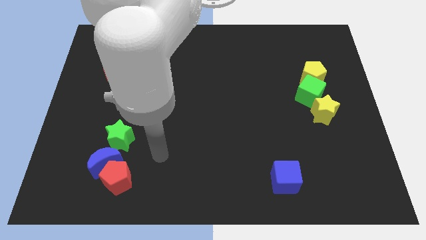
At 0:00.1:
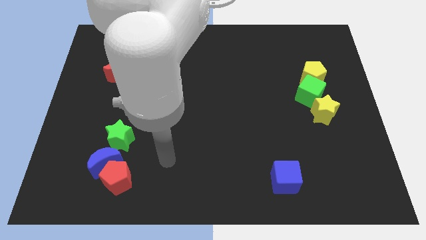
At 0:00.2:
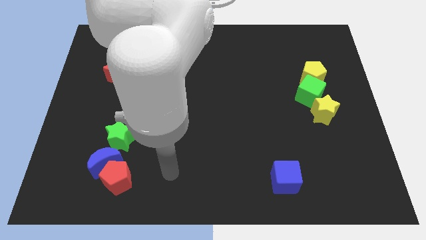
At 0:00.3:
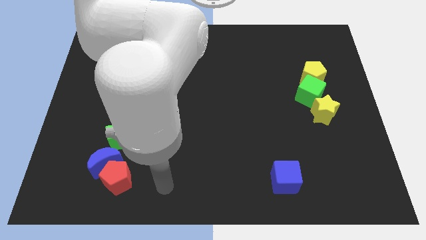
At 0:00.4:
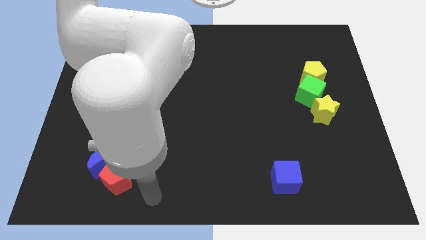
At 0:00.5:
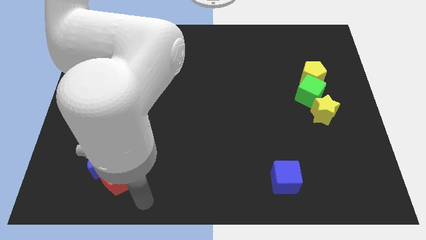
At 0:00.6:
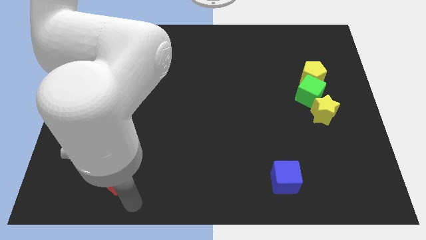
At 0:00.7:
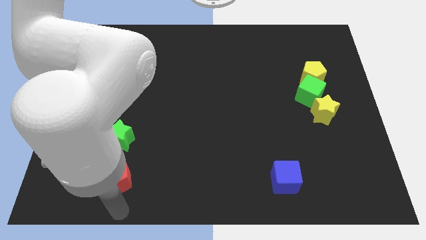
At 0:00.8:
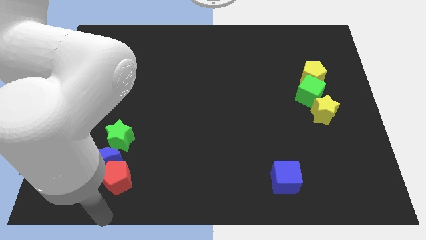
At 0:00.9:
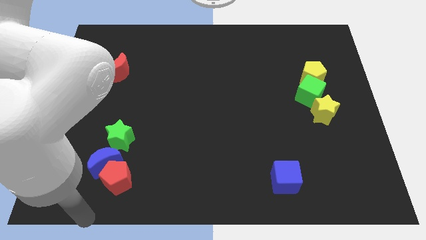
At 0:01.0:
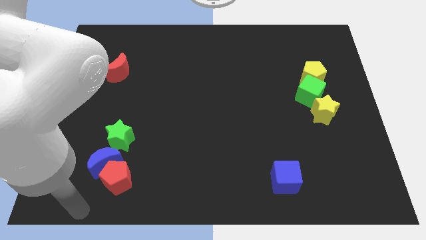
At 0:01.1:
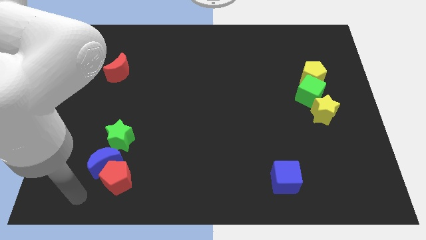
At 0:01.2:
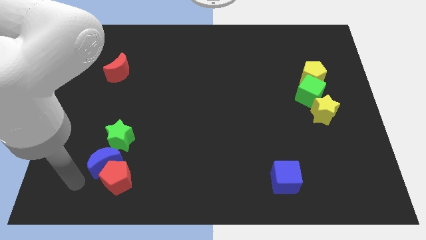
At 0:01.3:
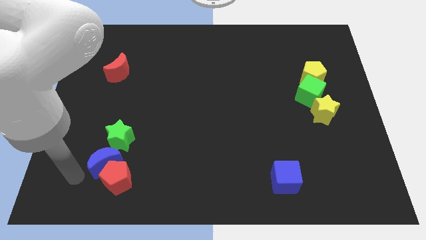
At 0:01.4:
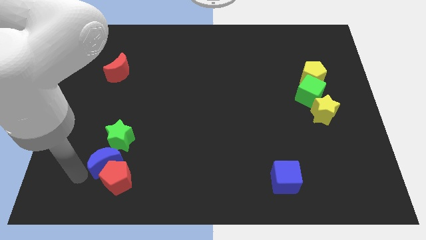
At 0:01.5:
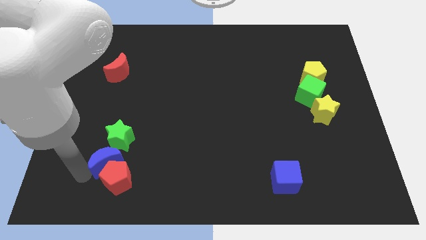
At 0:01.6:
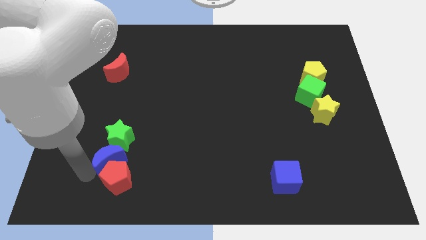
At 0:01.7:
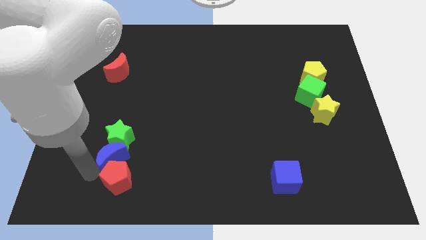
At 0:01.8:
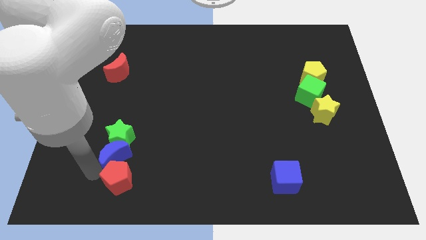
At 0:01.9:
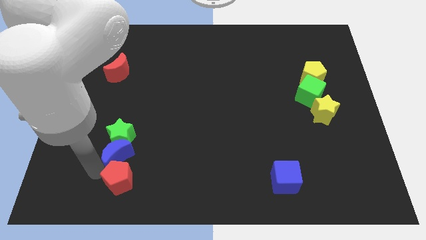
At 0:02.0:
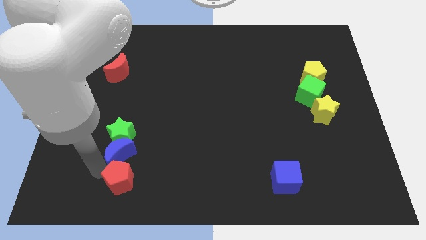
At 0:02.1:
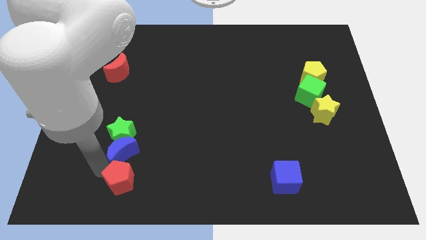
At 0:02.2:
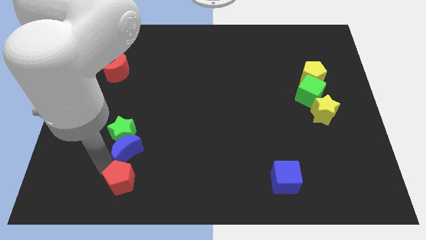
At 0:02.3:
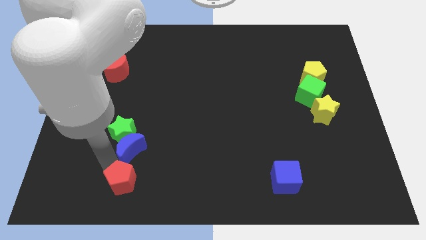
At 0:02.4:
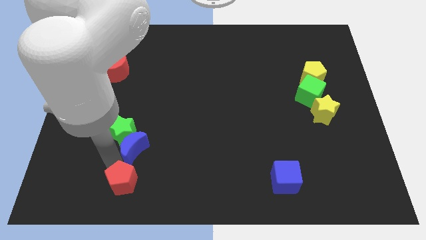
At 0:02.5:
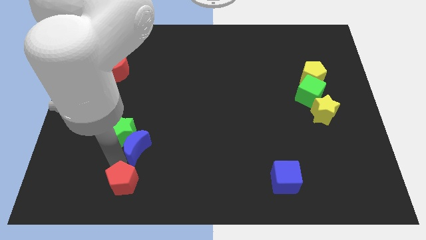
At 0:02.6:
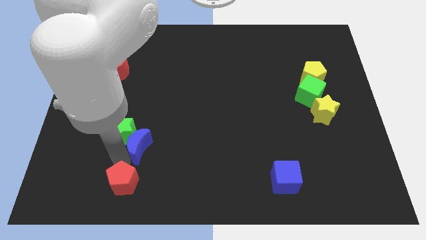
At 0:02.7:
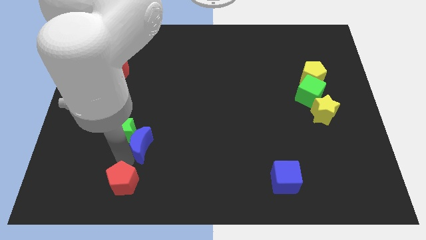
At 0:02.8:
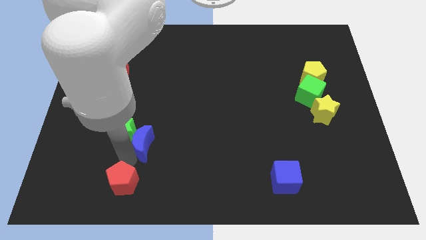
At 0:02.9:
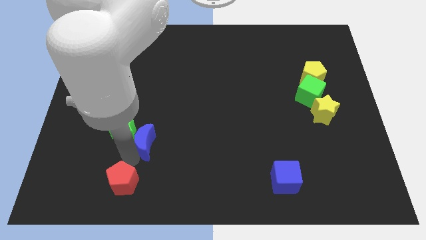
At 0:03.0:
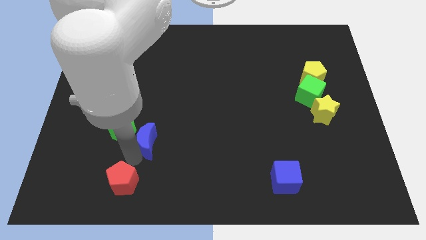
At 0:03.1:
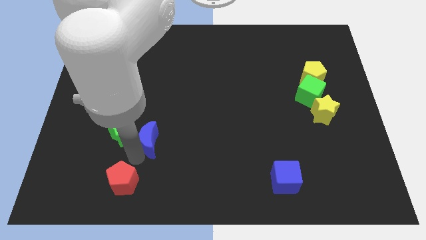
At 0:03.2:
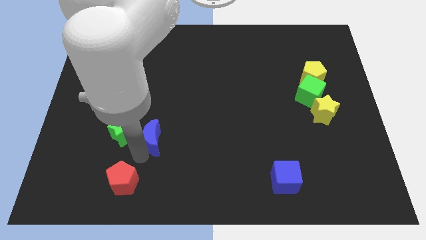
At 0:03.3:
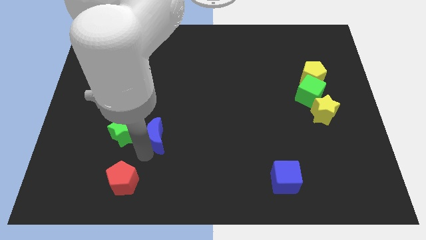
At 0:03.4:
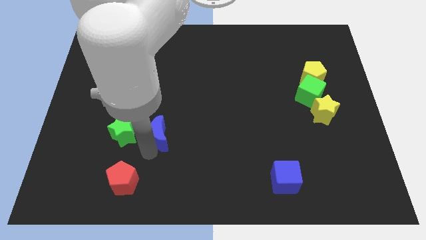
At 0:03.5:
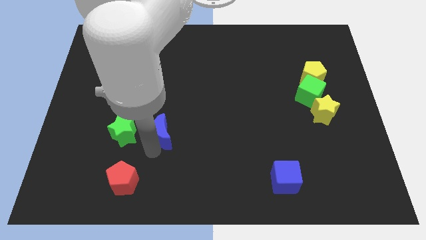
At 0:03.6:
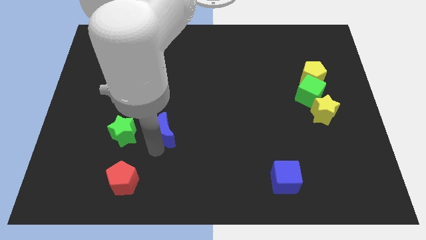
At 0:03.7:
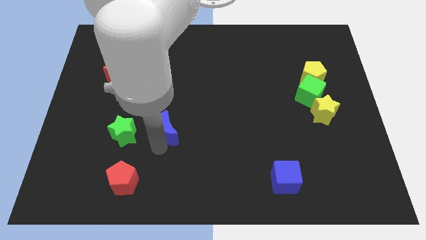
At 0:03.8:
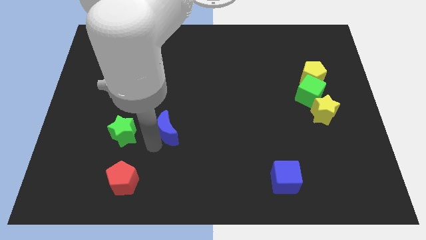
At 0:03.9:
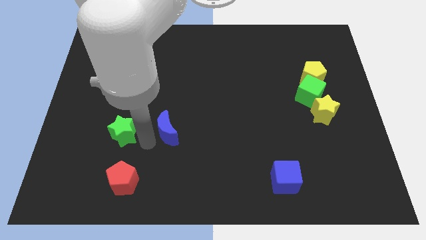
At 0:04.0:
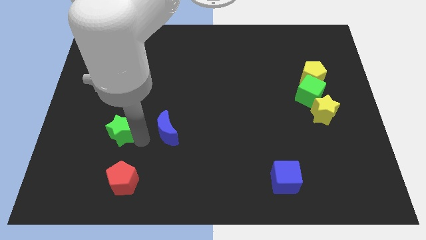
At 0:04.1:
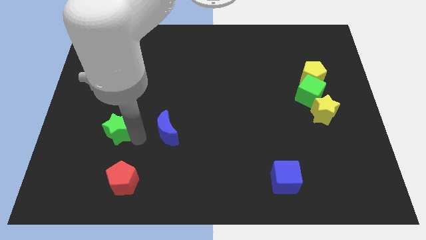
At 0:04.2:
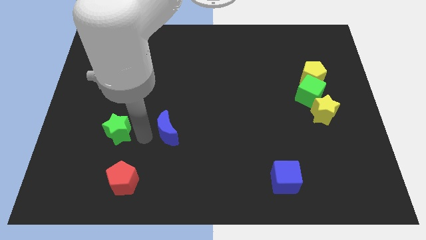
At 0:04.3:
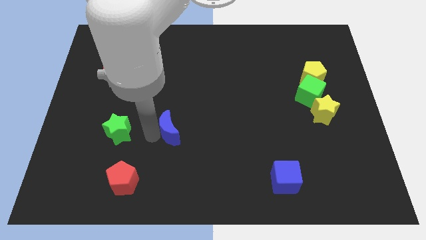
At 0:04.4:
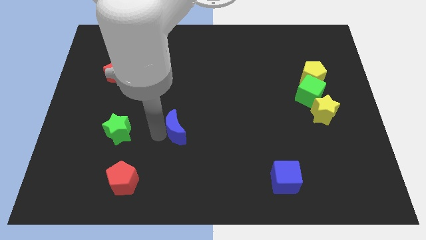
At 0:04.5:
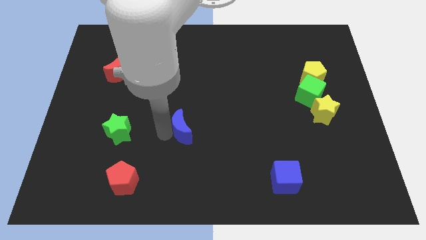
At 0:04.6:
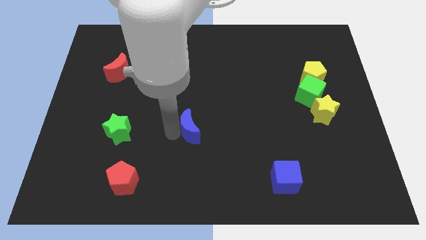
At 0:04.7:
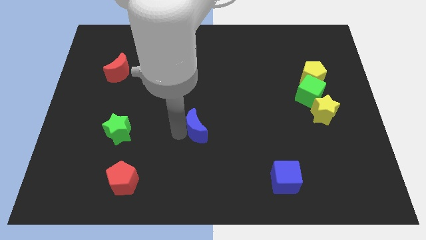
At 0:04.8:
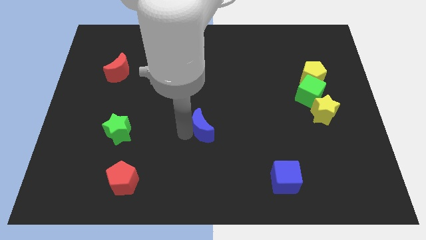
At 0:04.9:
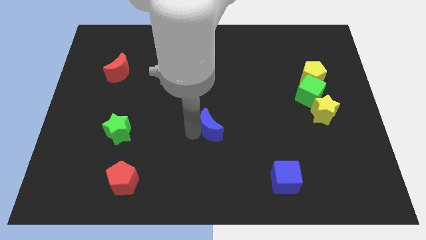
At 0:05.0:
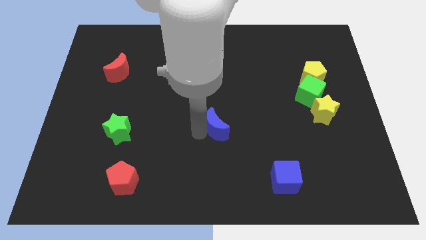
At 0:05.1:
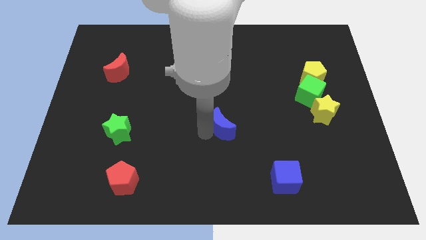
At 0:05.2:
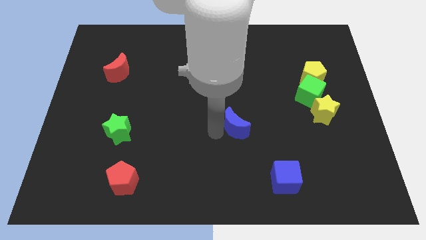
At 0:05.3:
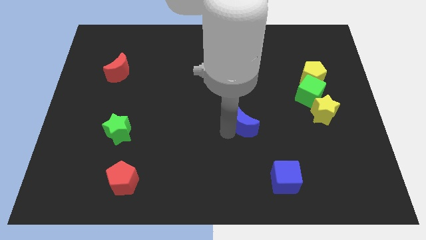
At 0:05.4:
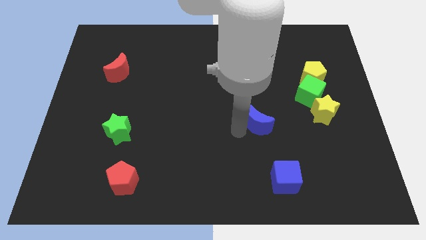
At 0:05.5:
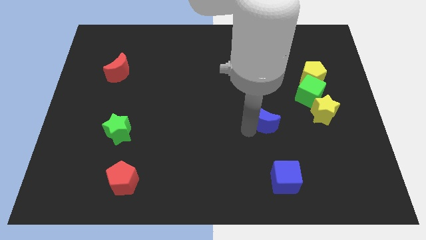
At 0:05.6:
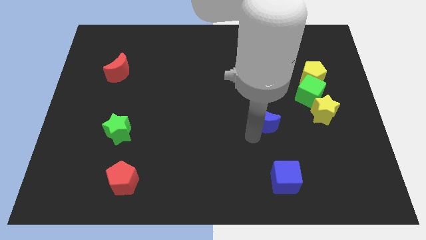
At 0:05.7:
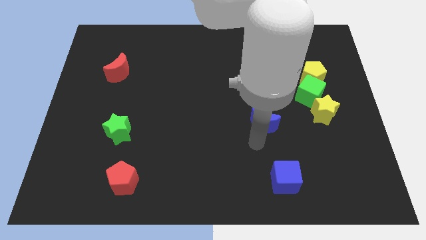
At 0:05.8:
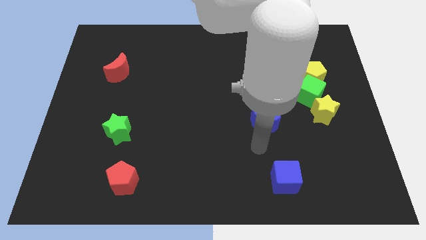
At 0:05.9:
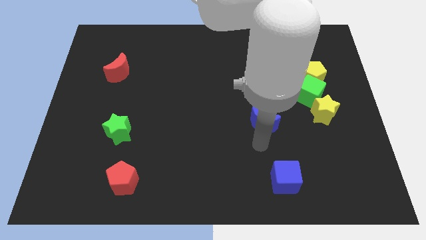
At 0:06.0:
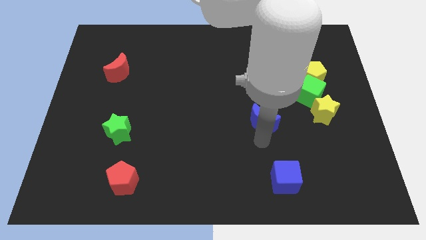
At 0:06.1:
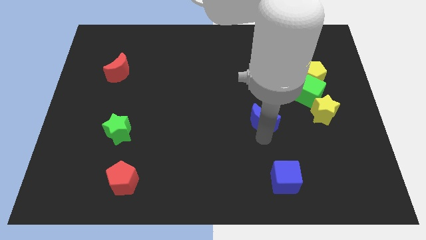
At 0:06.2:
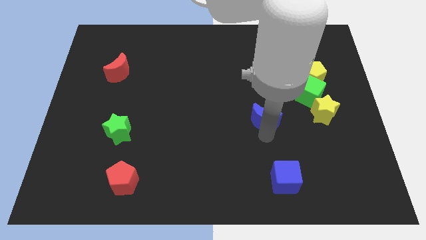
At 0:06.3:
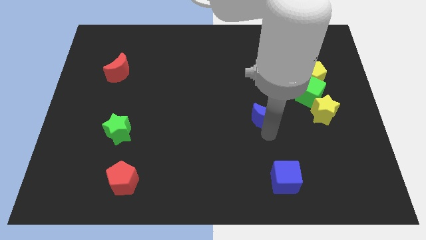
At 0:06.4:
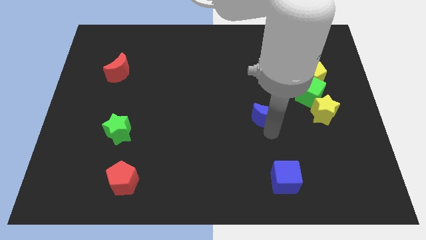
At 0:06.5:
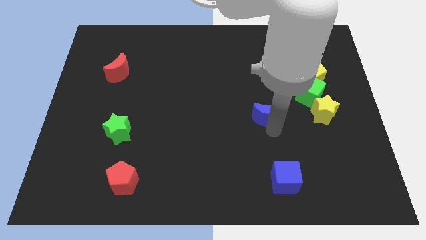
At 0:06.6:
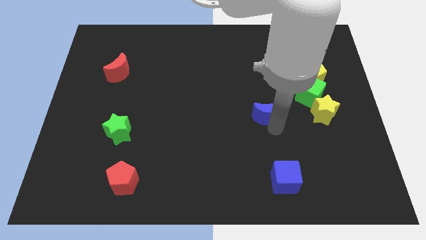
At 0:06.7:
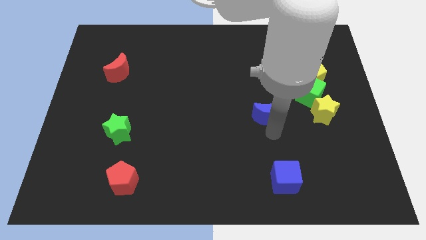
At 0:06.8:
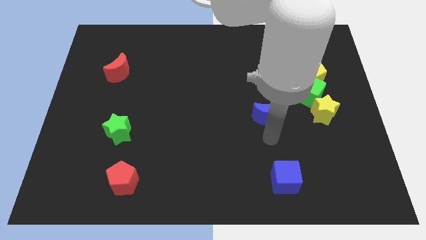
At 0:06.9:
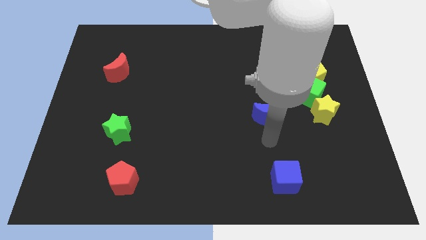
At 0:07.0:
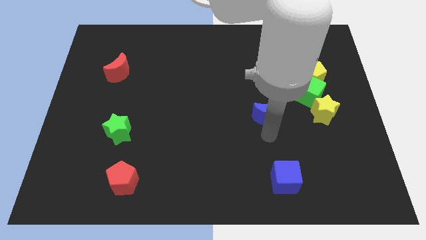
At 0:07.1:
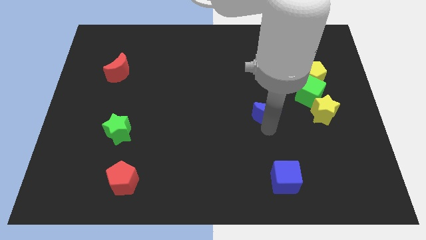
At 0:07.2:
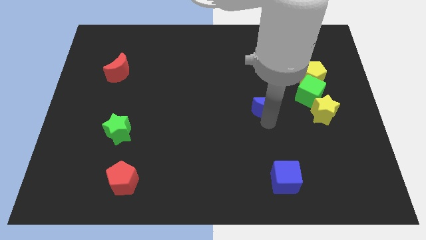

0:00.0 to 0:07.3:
push the blue moon to the left of the green cube

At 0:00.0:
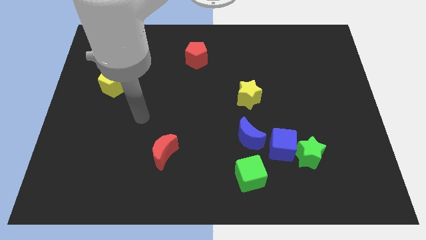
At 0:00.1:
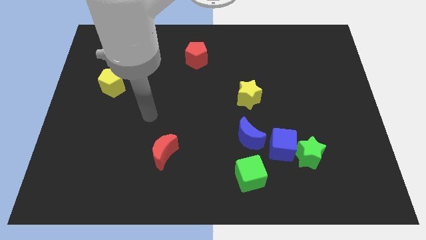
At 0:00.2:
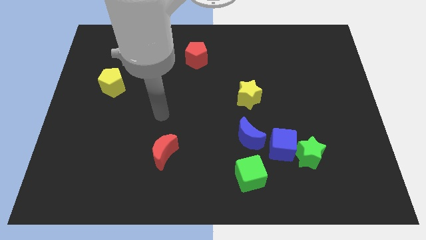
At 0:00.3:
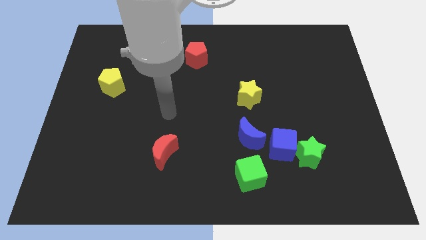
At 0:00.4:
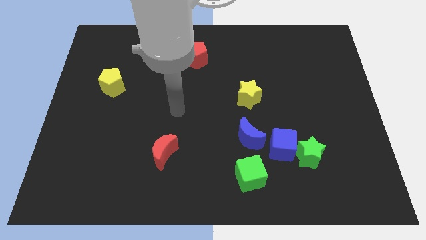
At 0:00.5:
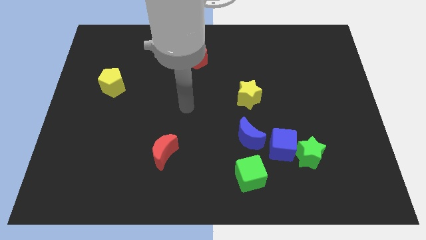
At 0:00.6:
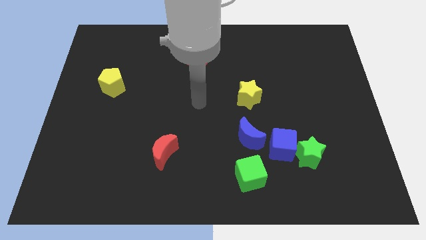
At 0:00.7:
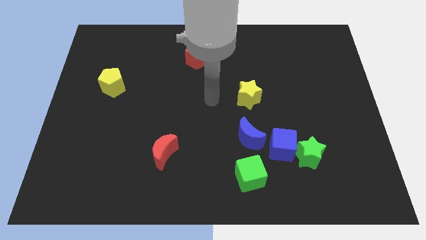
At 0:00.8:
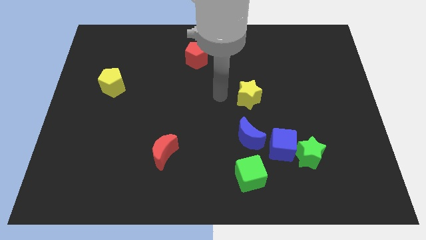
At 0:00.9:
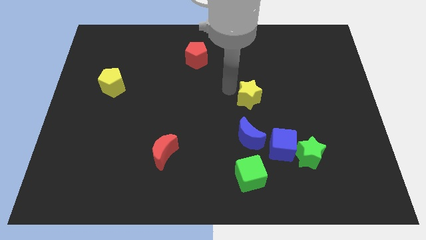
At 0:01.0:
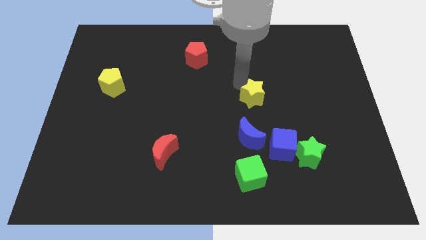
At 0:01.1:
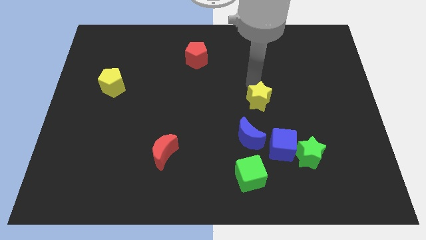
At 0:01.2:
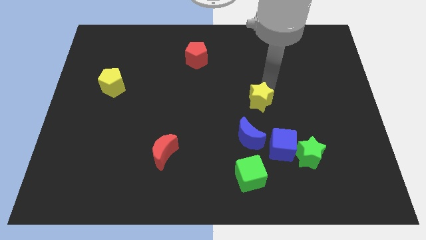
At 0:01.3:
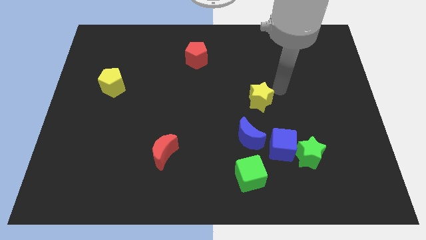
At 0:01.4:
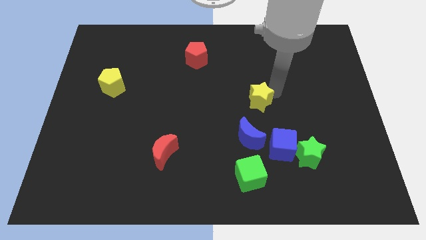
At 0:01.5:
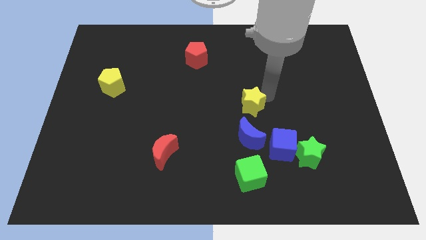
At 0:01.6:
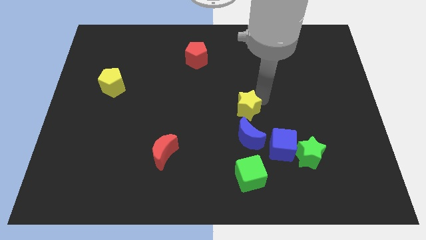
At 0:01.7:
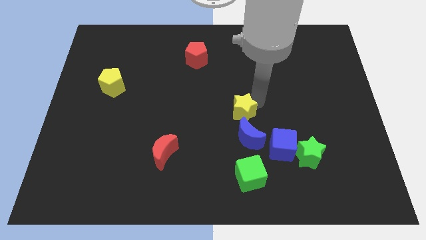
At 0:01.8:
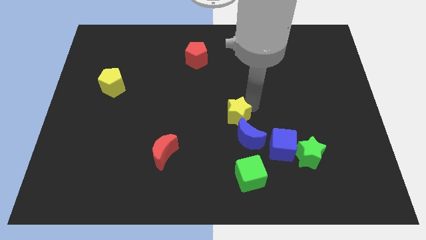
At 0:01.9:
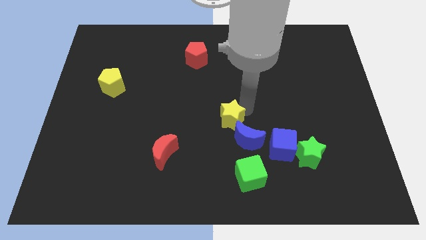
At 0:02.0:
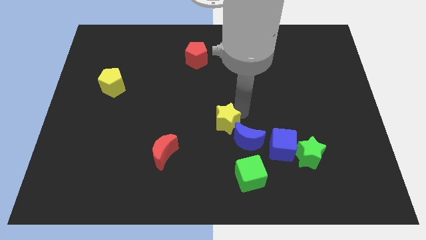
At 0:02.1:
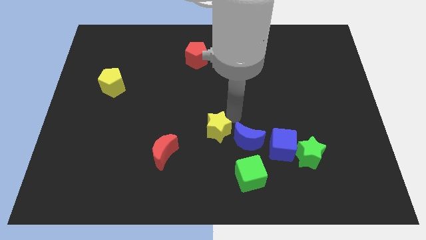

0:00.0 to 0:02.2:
put the yellow star left of the blue moon
